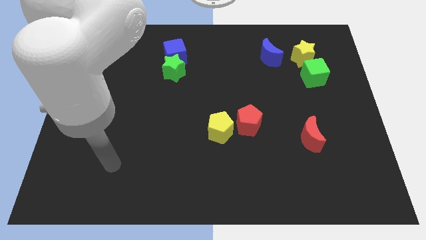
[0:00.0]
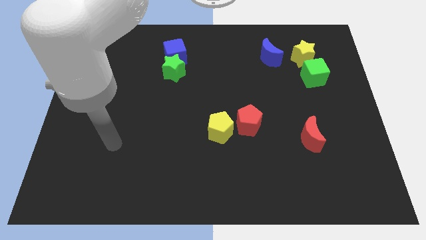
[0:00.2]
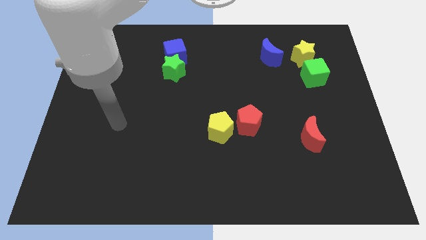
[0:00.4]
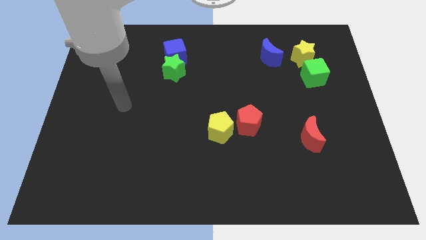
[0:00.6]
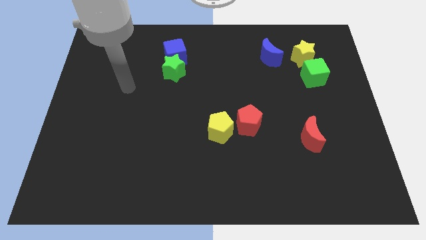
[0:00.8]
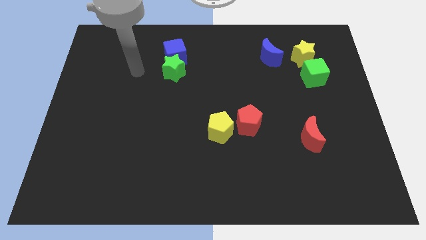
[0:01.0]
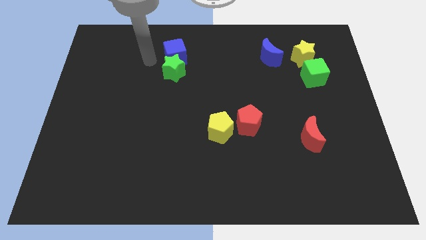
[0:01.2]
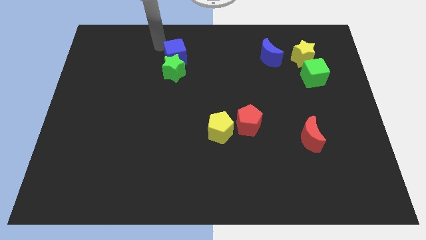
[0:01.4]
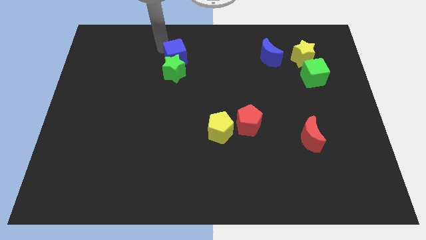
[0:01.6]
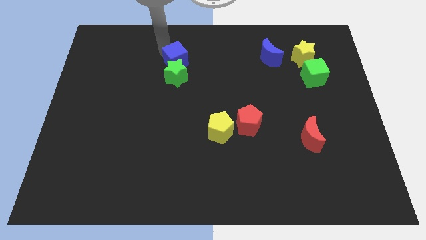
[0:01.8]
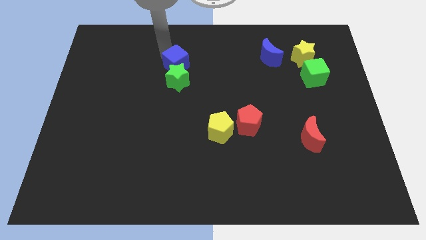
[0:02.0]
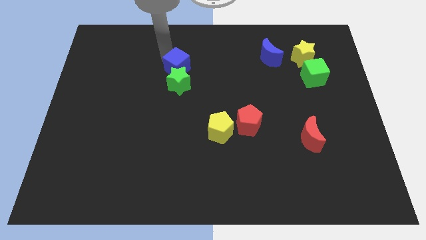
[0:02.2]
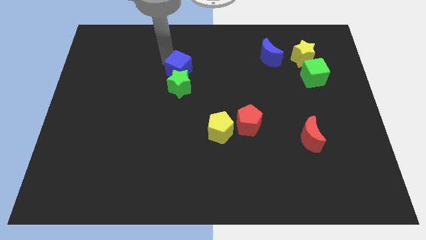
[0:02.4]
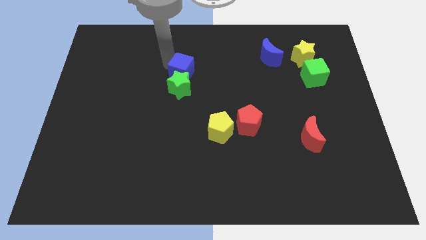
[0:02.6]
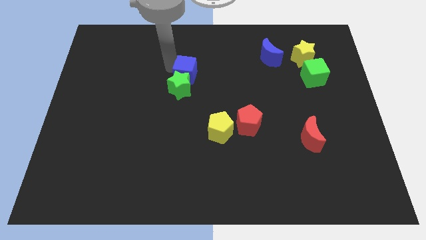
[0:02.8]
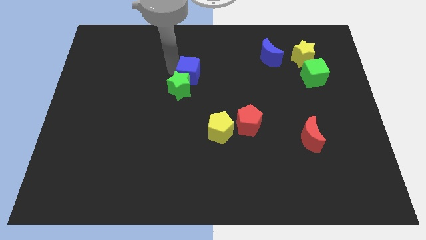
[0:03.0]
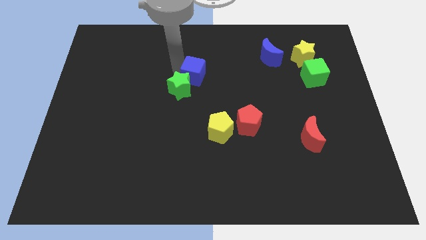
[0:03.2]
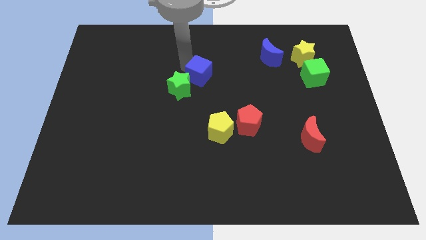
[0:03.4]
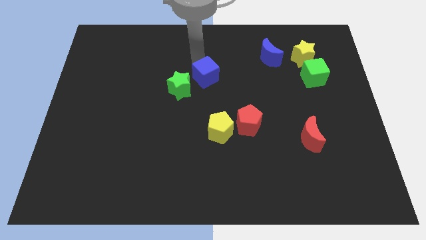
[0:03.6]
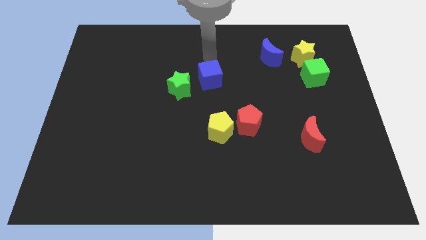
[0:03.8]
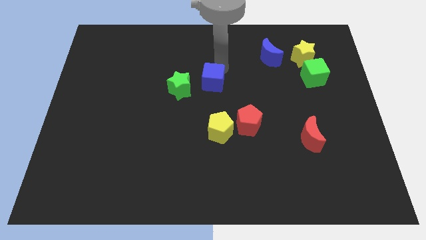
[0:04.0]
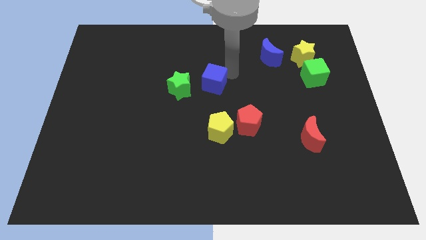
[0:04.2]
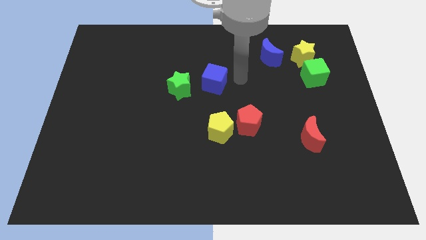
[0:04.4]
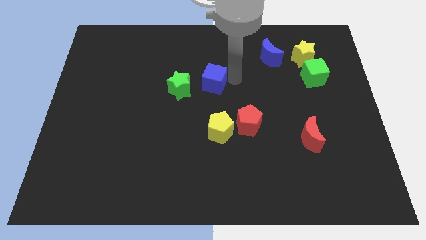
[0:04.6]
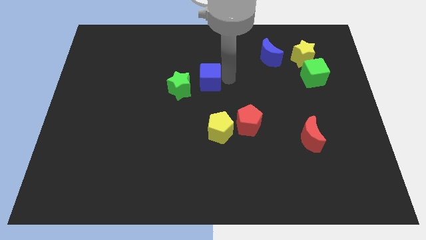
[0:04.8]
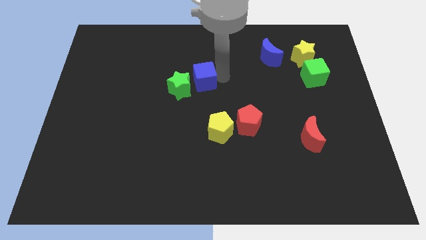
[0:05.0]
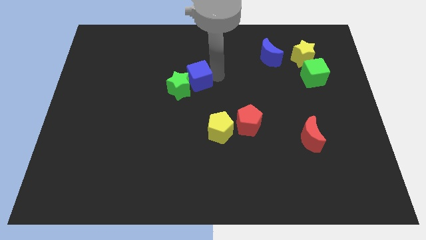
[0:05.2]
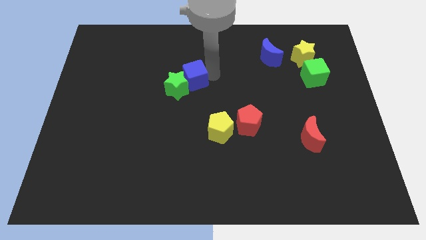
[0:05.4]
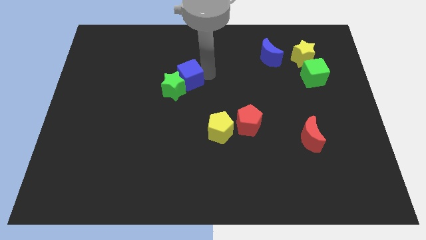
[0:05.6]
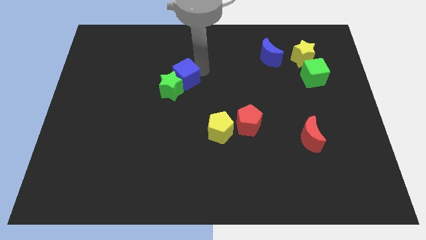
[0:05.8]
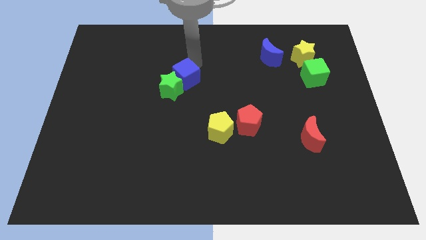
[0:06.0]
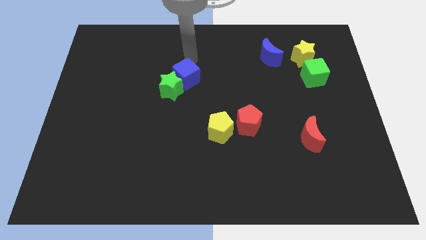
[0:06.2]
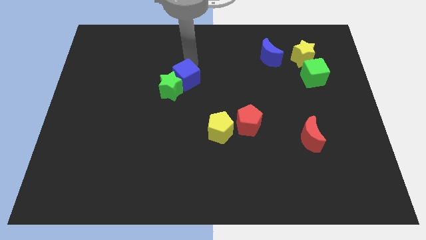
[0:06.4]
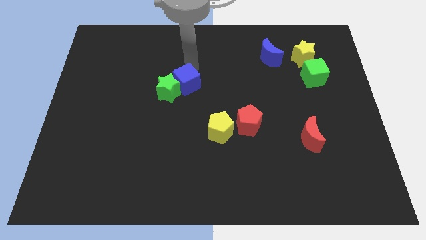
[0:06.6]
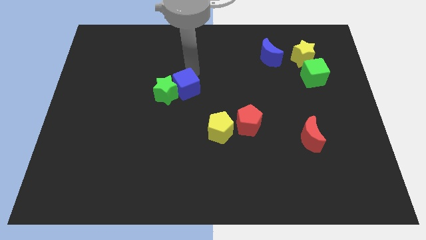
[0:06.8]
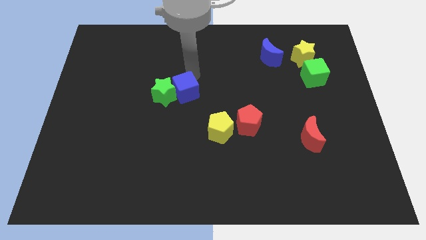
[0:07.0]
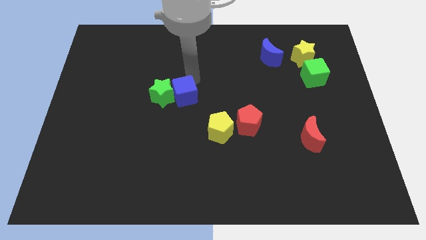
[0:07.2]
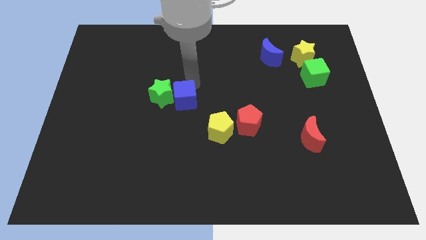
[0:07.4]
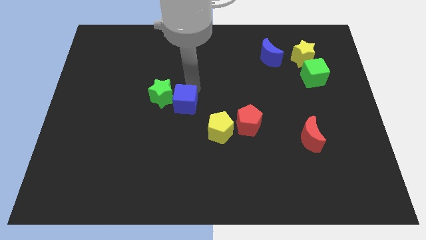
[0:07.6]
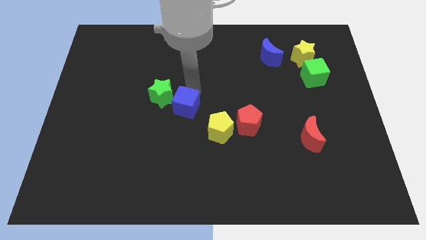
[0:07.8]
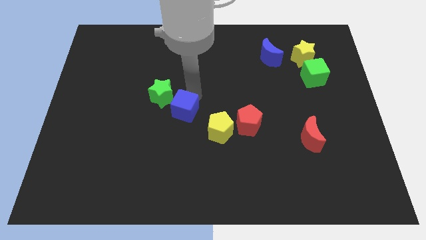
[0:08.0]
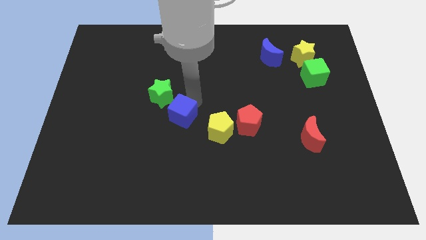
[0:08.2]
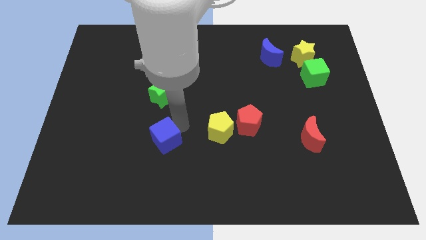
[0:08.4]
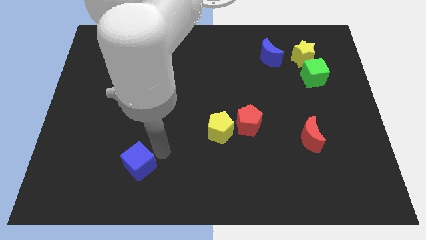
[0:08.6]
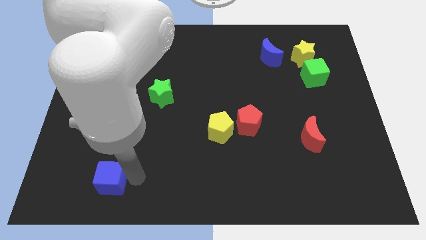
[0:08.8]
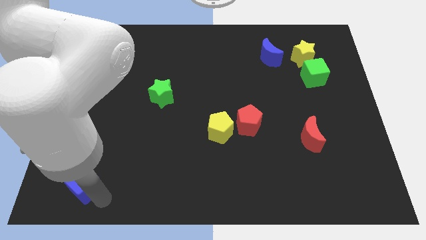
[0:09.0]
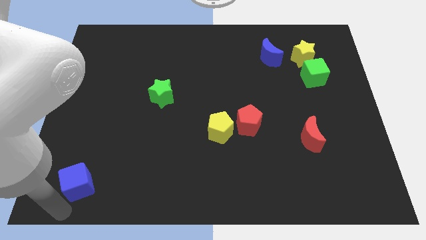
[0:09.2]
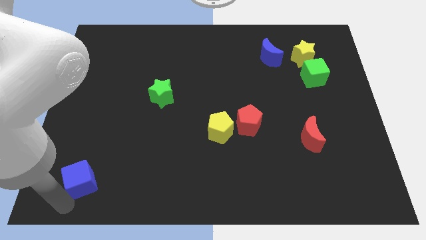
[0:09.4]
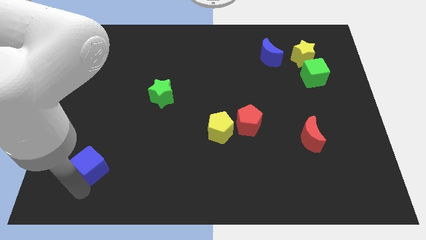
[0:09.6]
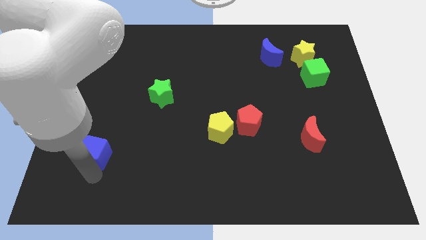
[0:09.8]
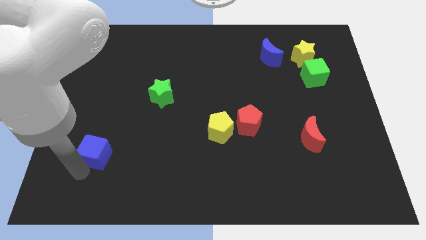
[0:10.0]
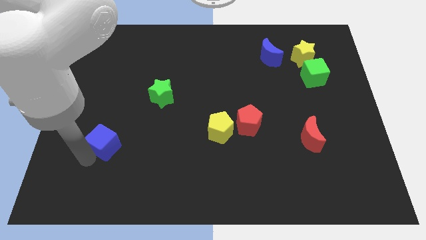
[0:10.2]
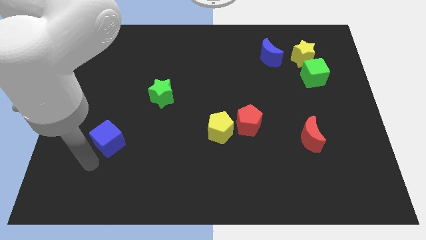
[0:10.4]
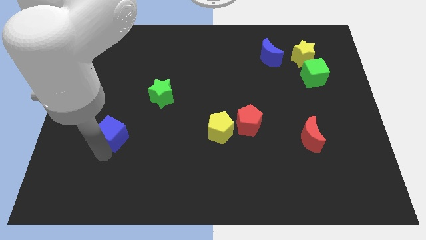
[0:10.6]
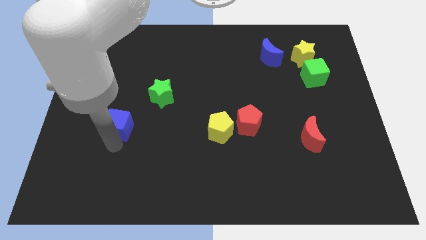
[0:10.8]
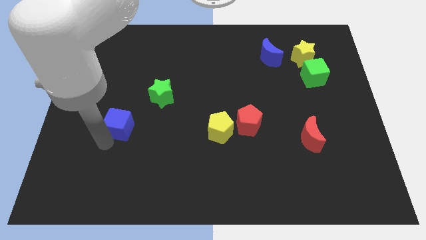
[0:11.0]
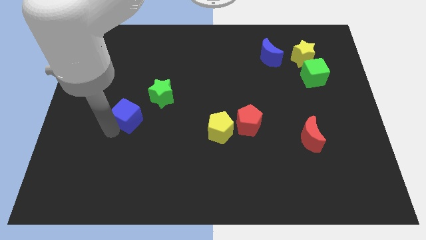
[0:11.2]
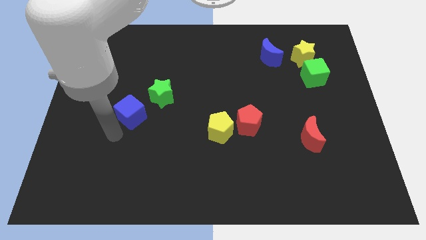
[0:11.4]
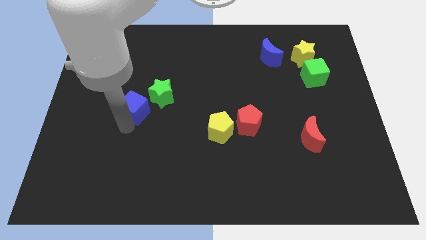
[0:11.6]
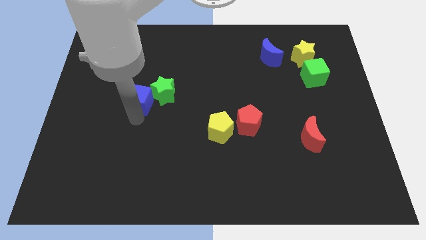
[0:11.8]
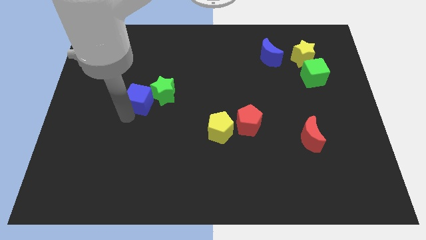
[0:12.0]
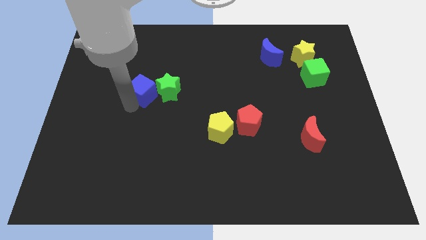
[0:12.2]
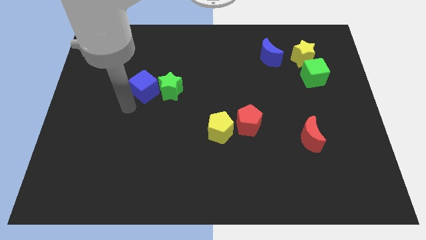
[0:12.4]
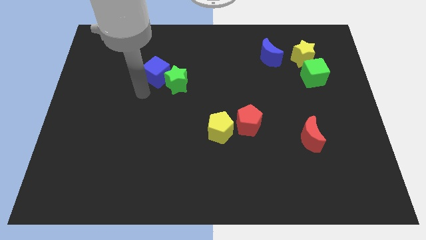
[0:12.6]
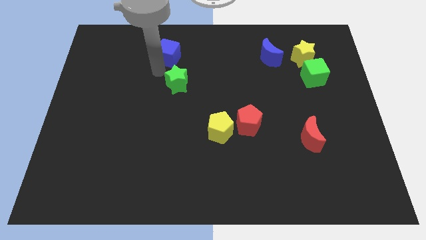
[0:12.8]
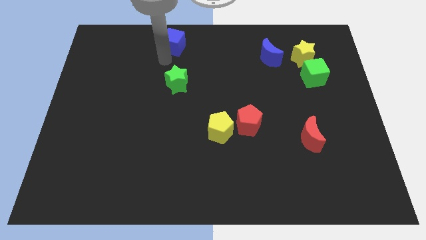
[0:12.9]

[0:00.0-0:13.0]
move the blue cube to the towards your base

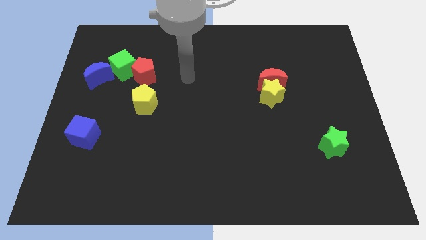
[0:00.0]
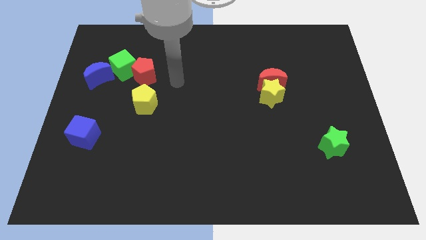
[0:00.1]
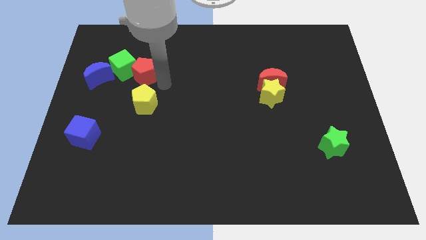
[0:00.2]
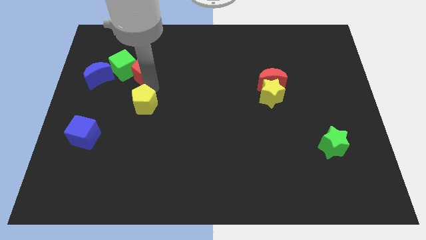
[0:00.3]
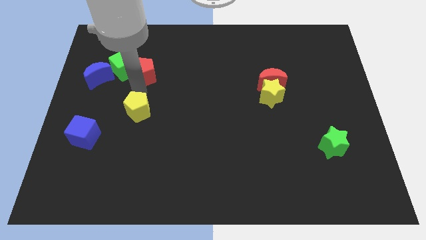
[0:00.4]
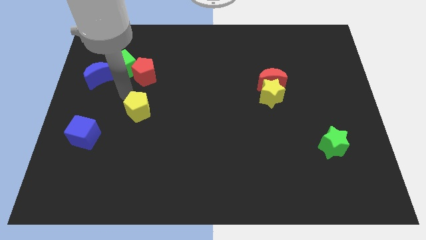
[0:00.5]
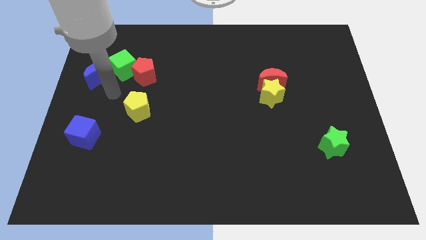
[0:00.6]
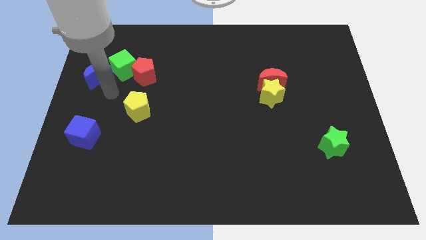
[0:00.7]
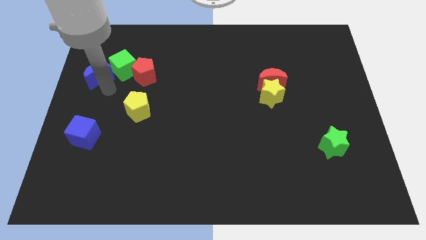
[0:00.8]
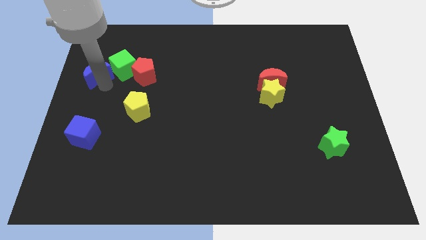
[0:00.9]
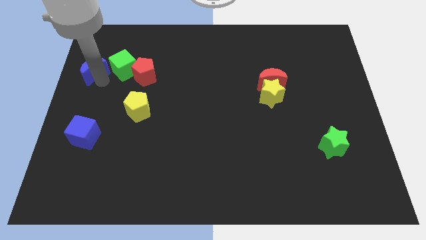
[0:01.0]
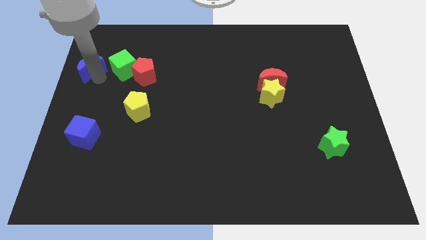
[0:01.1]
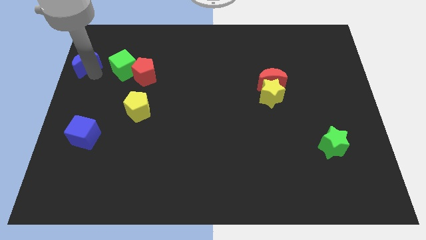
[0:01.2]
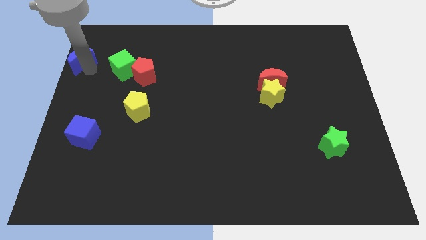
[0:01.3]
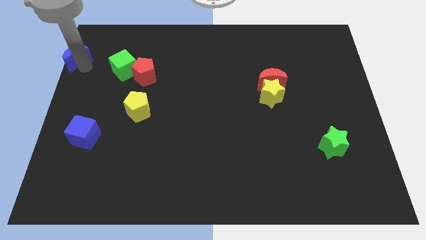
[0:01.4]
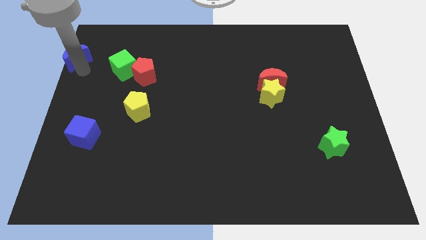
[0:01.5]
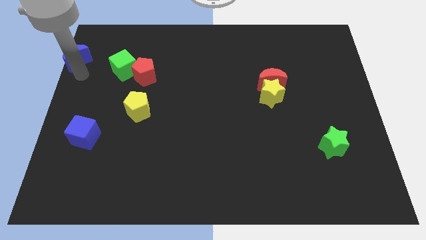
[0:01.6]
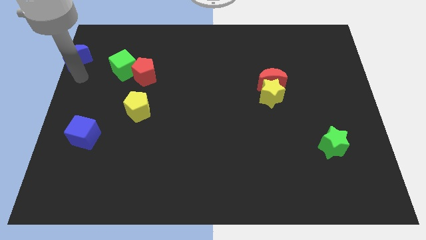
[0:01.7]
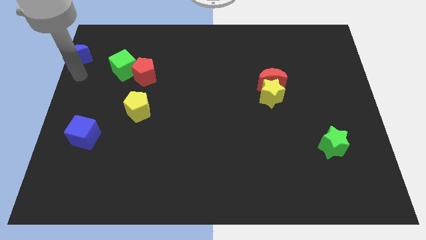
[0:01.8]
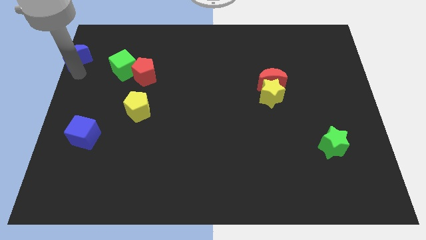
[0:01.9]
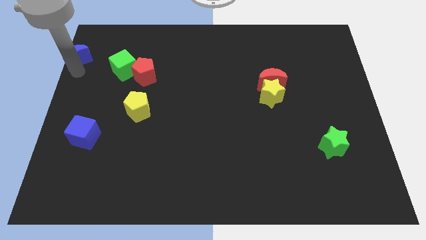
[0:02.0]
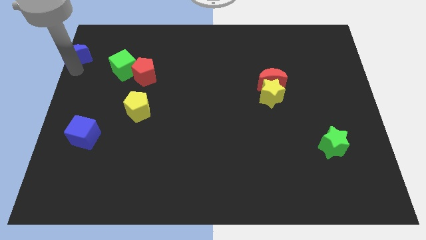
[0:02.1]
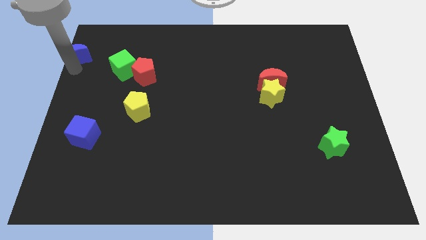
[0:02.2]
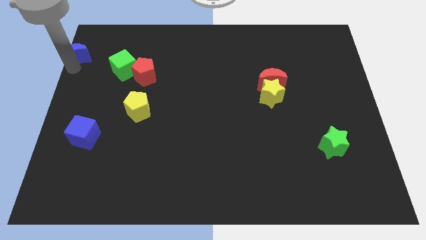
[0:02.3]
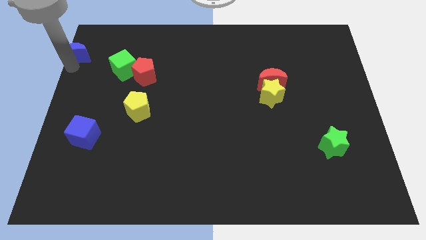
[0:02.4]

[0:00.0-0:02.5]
put the blue moon to the top left of the board
